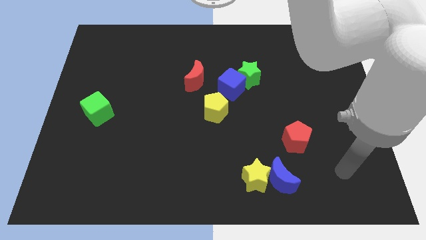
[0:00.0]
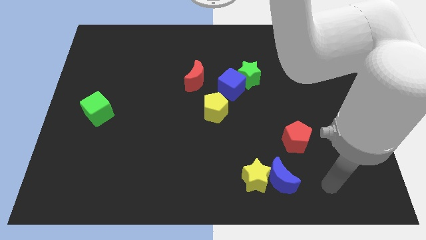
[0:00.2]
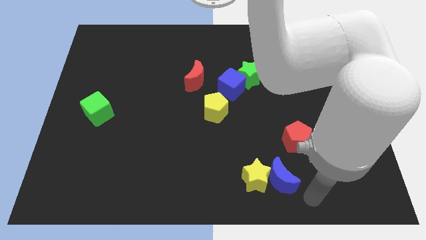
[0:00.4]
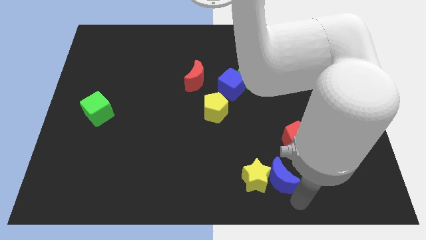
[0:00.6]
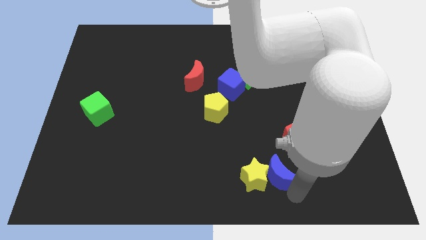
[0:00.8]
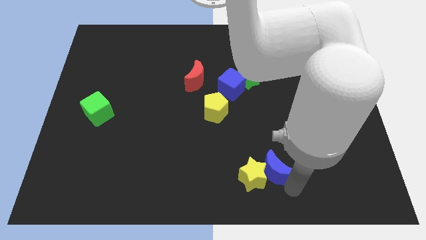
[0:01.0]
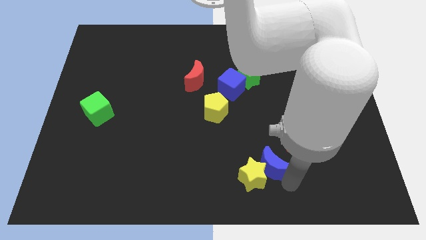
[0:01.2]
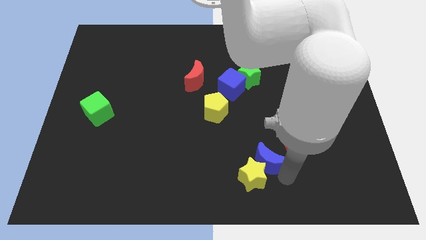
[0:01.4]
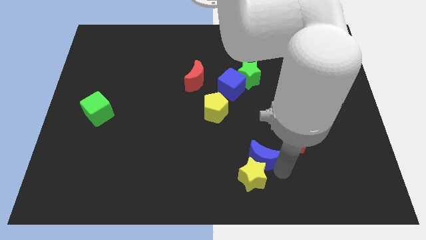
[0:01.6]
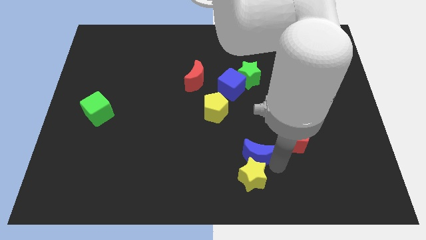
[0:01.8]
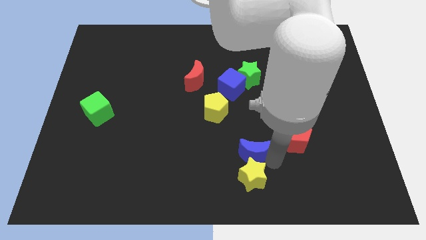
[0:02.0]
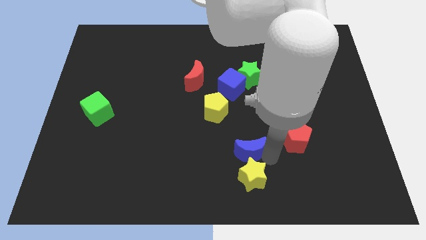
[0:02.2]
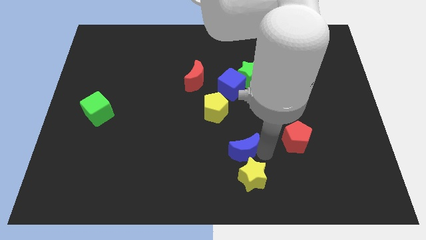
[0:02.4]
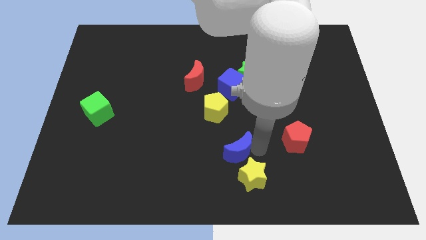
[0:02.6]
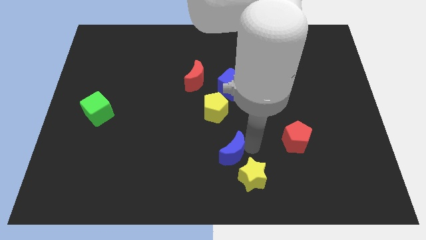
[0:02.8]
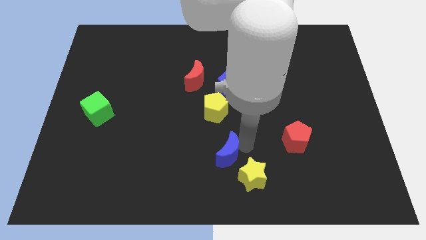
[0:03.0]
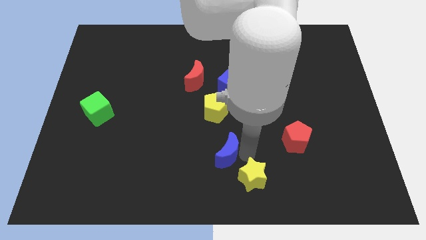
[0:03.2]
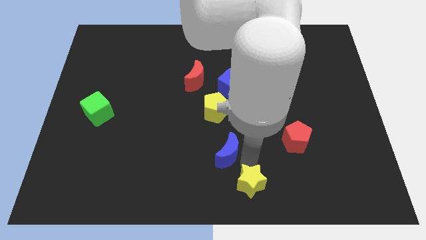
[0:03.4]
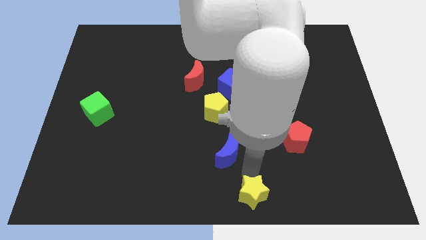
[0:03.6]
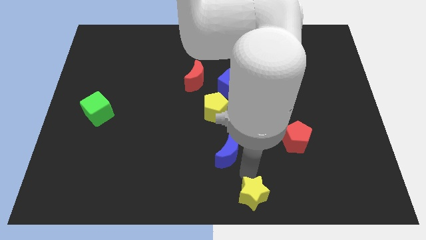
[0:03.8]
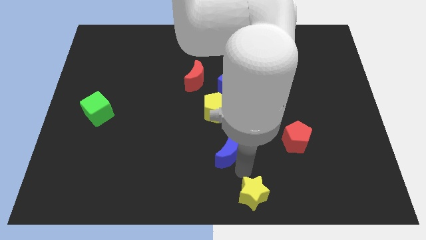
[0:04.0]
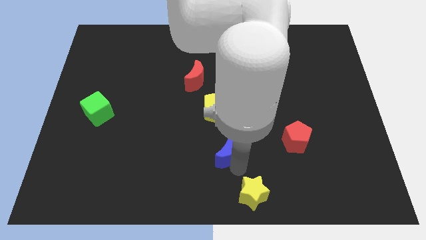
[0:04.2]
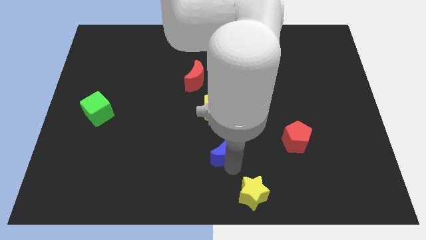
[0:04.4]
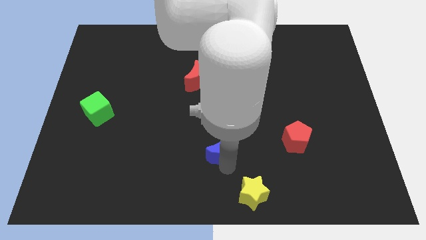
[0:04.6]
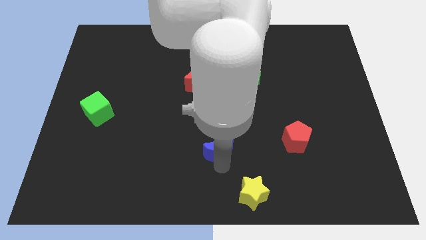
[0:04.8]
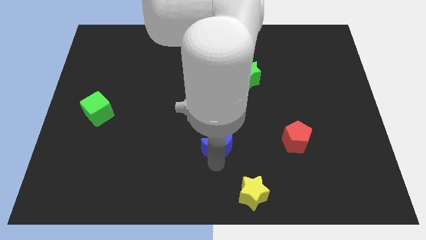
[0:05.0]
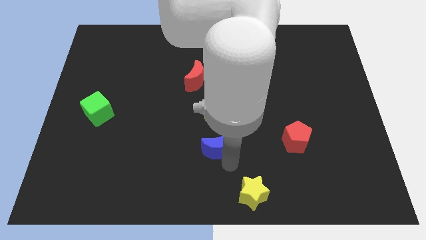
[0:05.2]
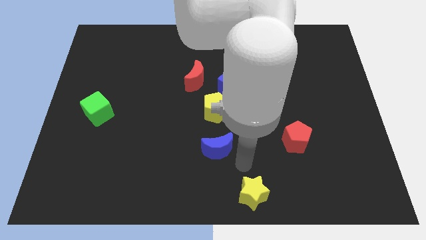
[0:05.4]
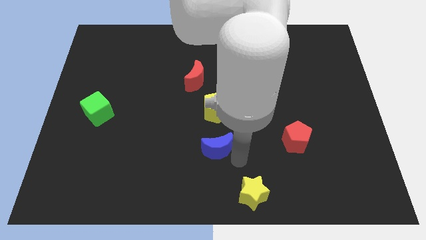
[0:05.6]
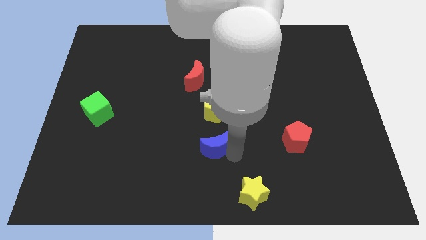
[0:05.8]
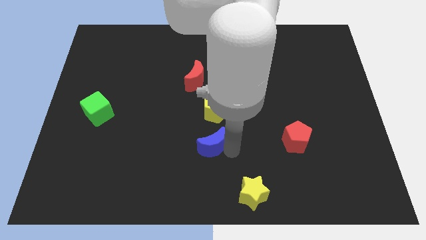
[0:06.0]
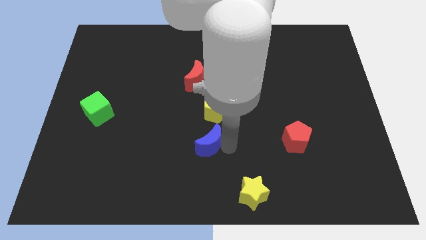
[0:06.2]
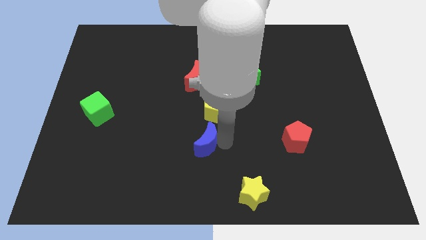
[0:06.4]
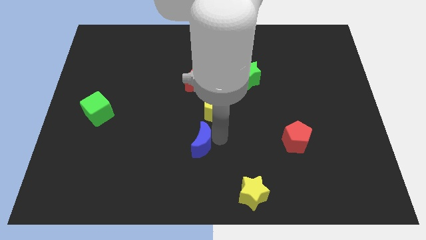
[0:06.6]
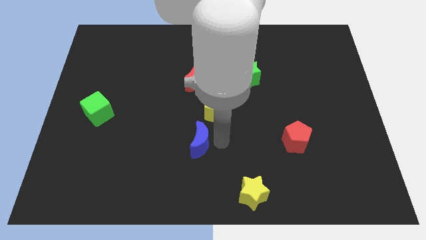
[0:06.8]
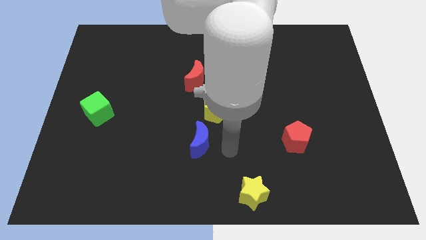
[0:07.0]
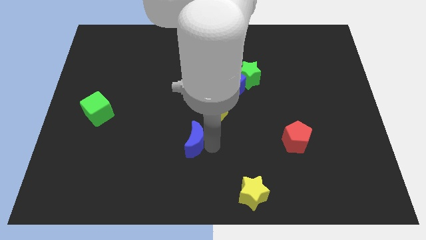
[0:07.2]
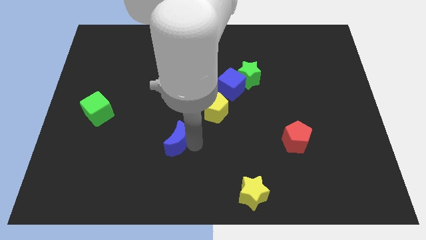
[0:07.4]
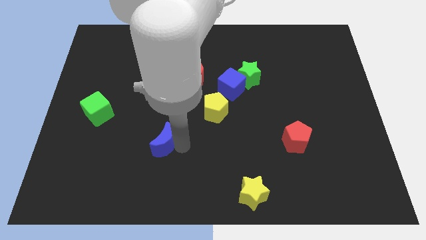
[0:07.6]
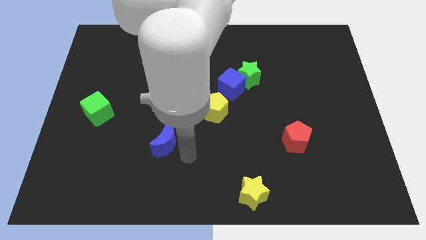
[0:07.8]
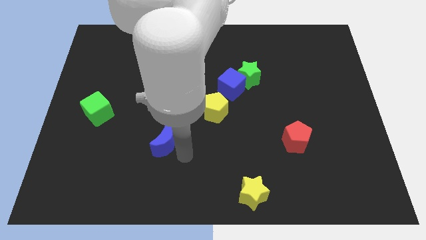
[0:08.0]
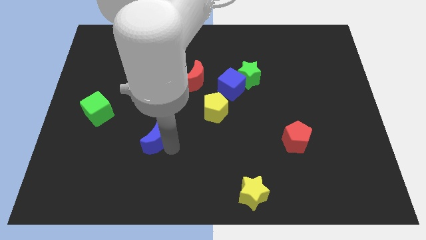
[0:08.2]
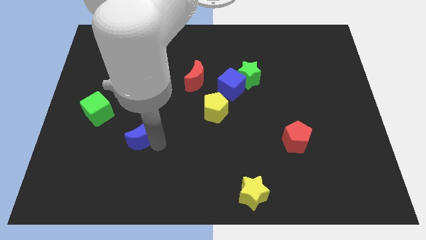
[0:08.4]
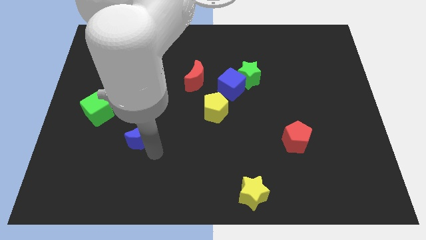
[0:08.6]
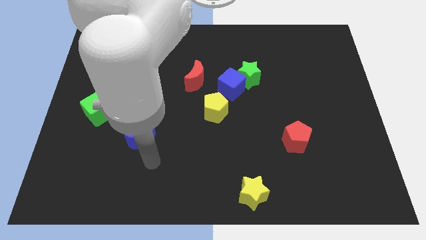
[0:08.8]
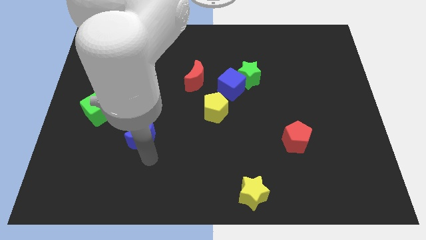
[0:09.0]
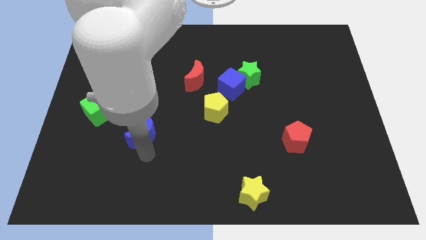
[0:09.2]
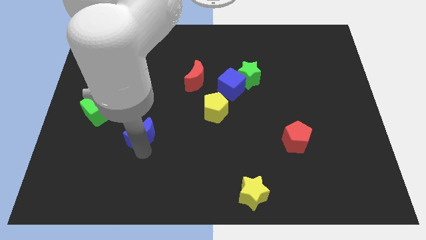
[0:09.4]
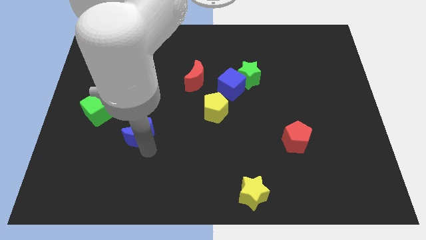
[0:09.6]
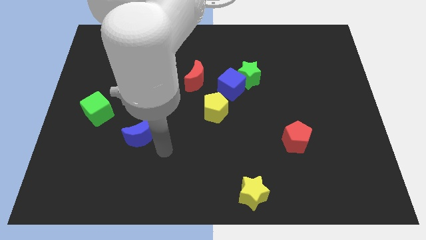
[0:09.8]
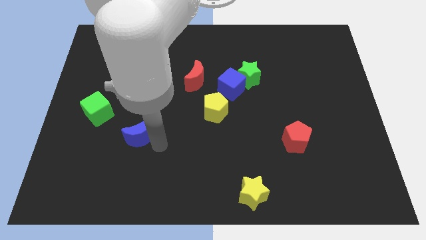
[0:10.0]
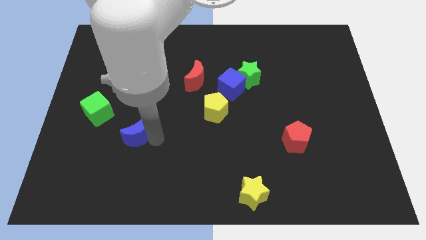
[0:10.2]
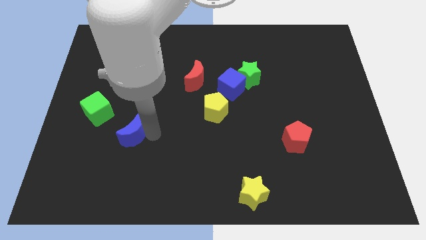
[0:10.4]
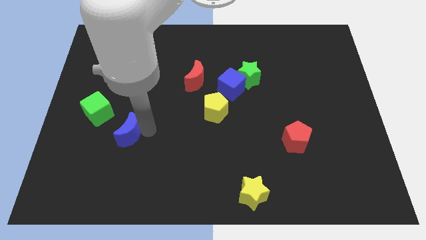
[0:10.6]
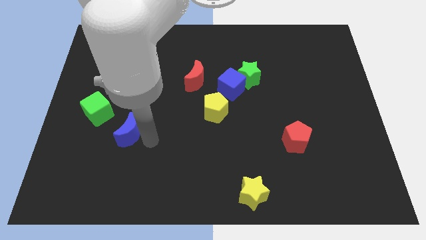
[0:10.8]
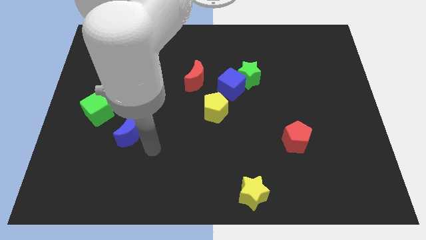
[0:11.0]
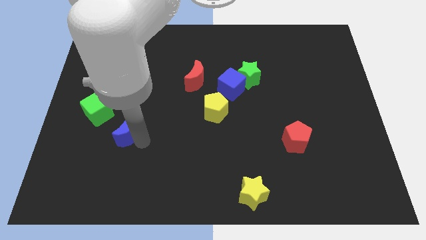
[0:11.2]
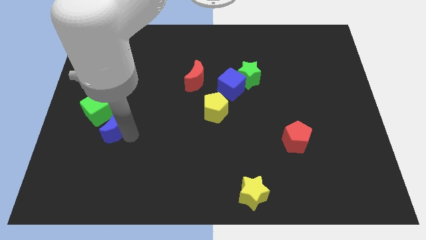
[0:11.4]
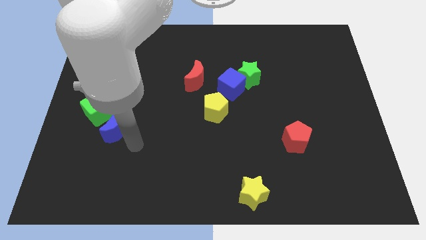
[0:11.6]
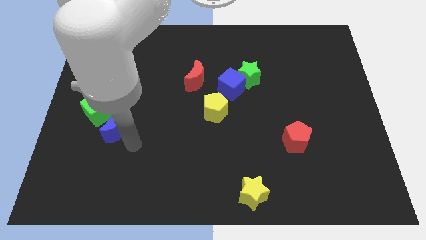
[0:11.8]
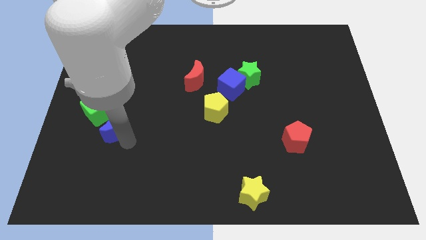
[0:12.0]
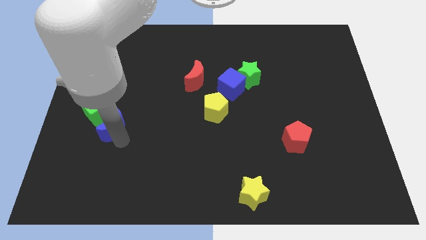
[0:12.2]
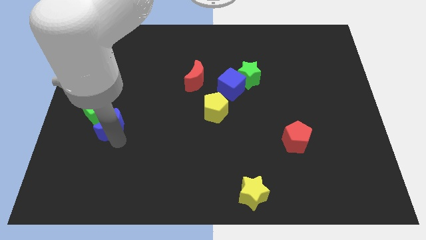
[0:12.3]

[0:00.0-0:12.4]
push the blue moon close to the green cube

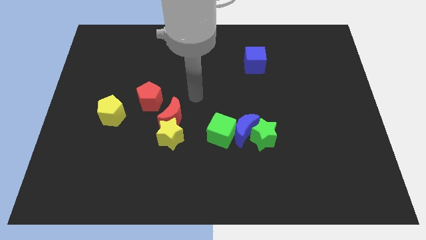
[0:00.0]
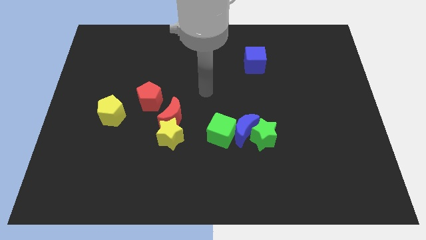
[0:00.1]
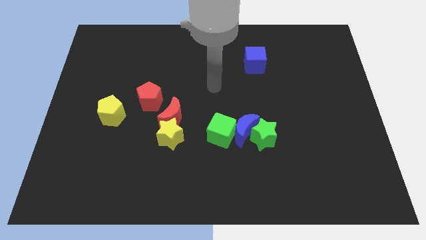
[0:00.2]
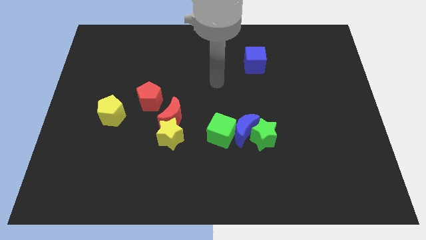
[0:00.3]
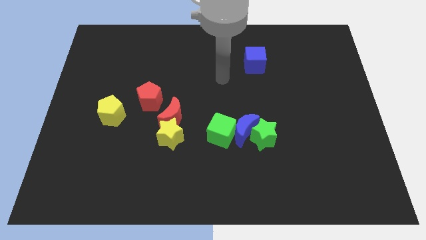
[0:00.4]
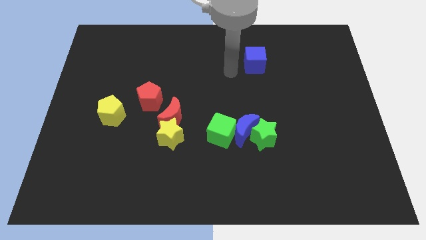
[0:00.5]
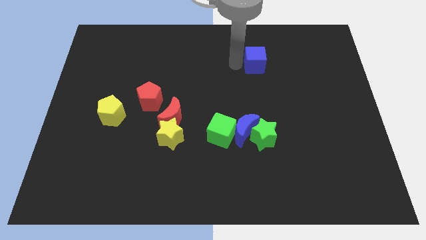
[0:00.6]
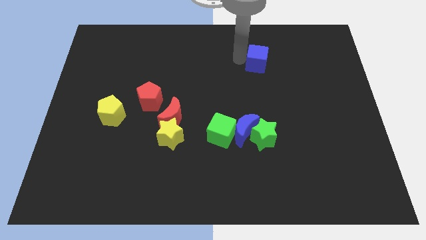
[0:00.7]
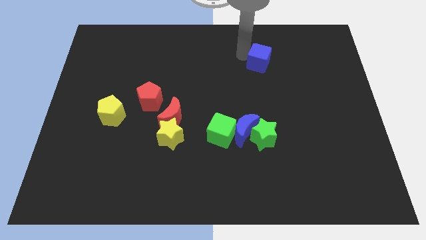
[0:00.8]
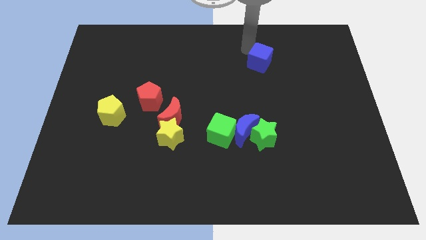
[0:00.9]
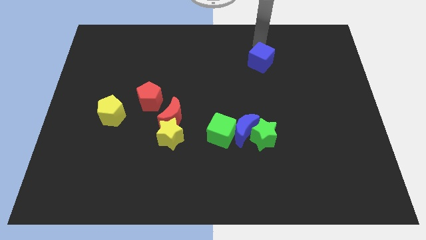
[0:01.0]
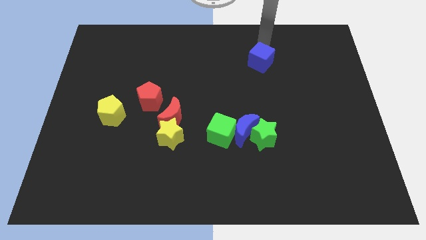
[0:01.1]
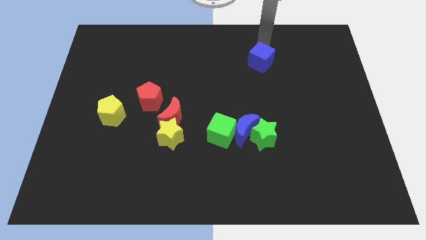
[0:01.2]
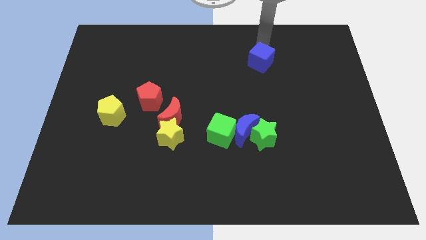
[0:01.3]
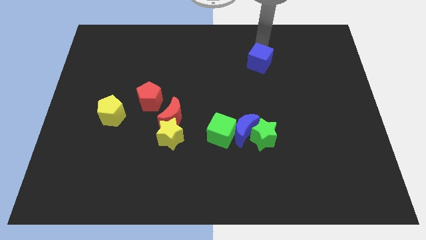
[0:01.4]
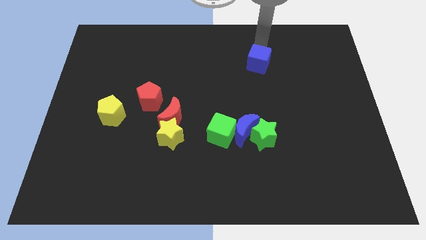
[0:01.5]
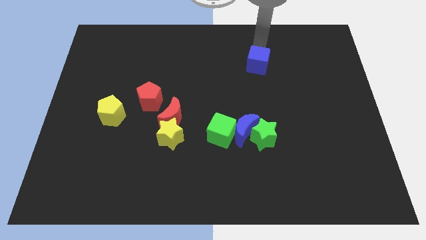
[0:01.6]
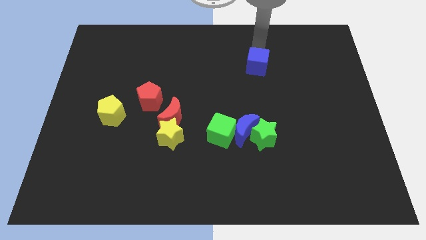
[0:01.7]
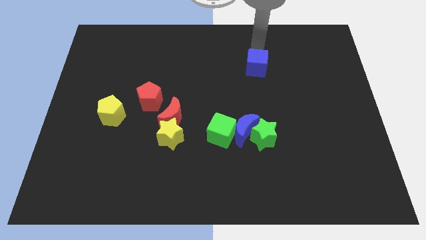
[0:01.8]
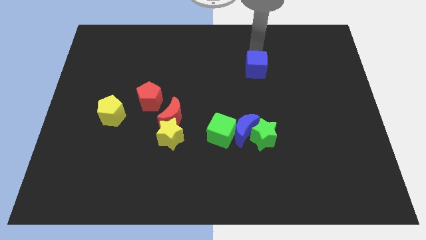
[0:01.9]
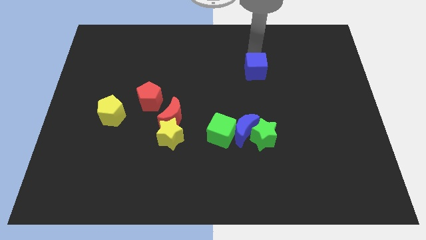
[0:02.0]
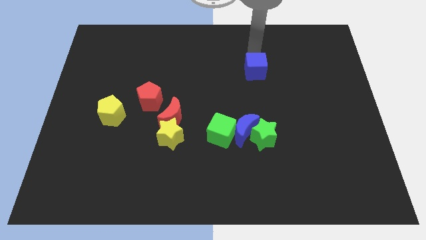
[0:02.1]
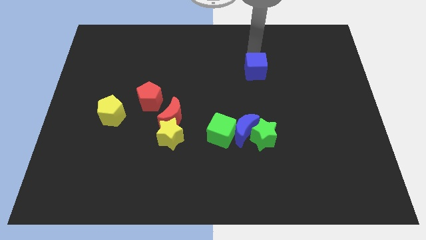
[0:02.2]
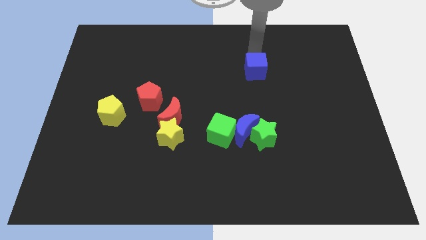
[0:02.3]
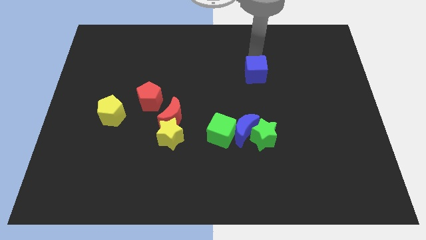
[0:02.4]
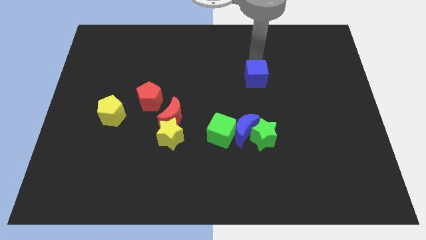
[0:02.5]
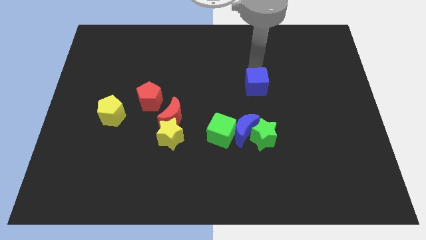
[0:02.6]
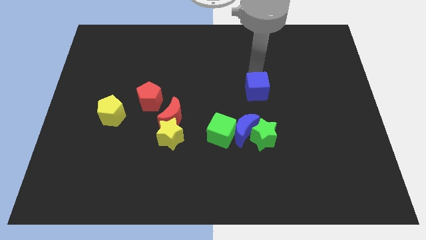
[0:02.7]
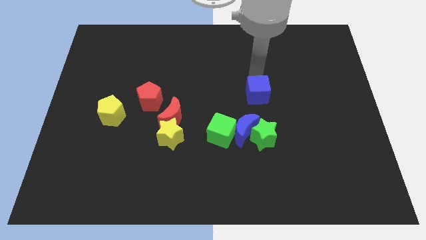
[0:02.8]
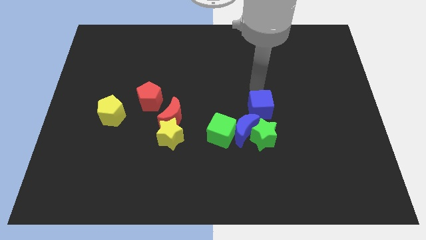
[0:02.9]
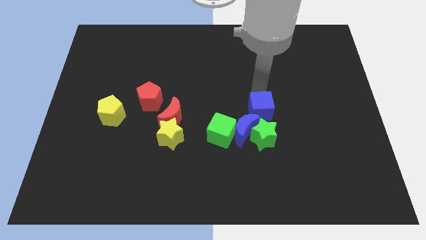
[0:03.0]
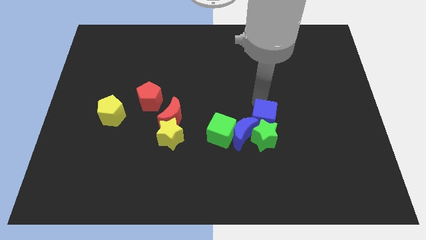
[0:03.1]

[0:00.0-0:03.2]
move the blue cube to the green star
